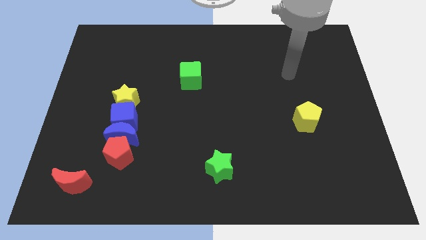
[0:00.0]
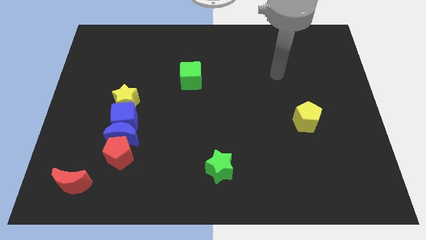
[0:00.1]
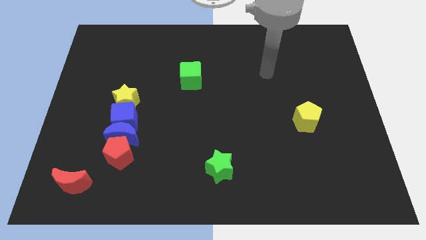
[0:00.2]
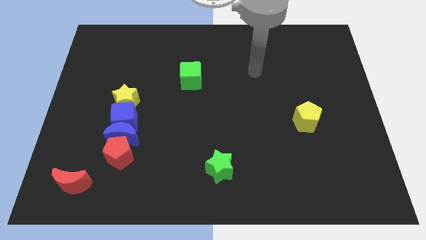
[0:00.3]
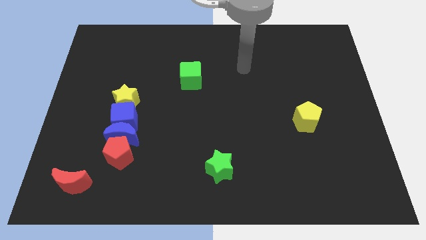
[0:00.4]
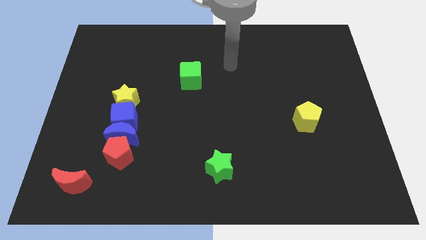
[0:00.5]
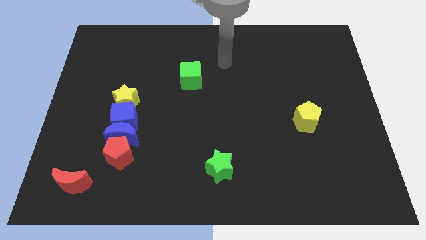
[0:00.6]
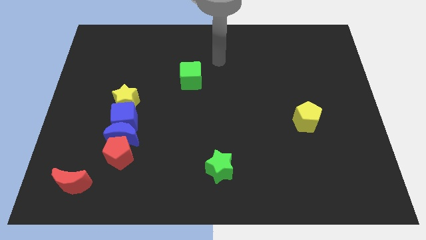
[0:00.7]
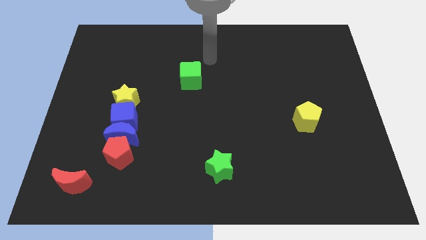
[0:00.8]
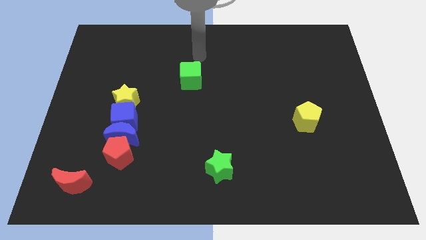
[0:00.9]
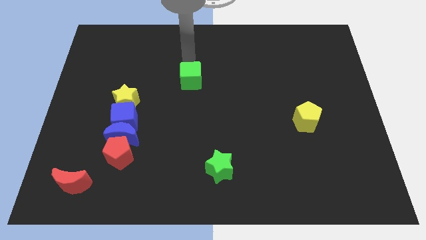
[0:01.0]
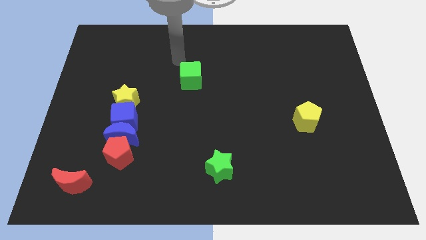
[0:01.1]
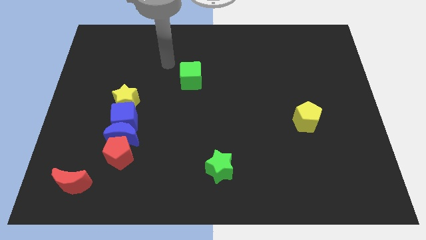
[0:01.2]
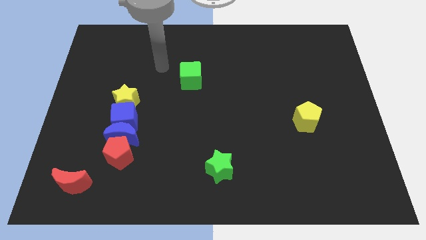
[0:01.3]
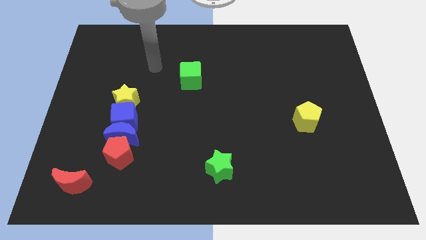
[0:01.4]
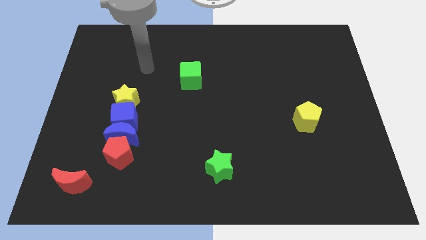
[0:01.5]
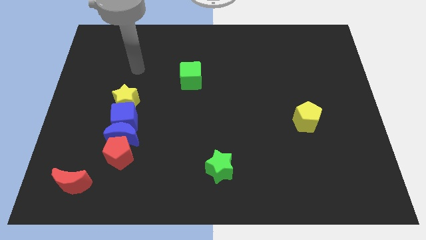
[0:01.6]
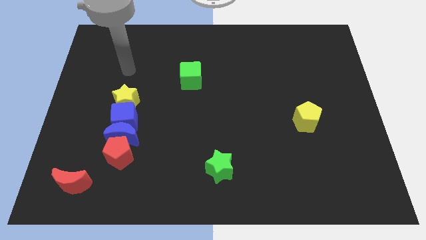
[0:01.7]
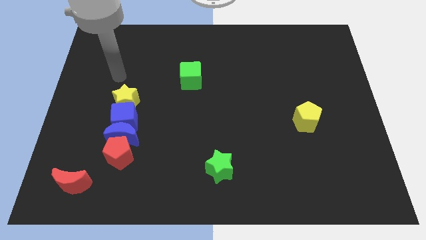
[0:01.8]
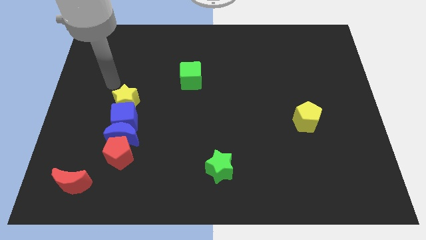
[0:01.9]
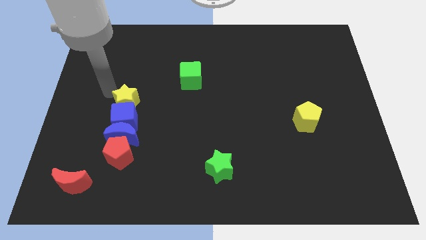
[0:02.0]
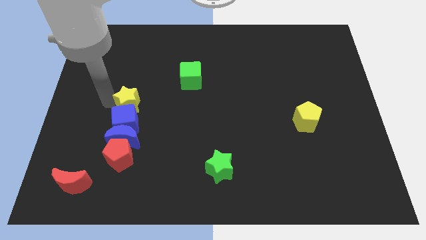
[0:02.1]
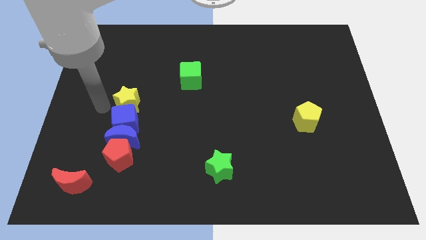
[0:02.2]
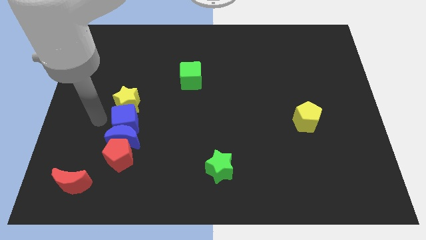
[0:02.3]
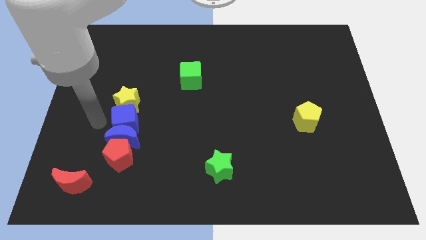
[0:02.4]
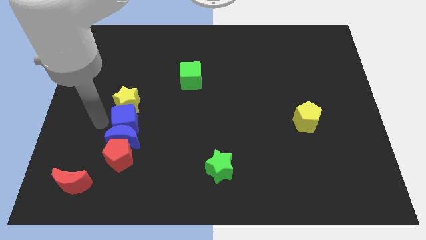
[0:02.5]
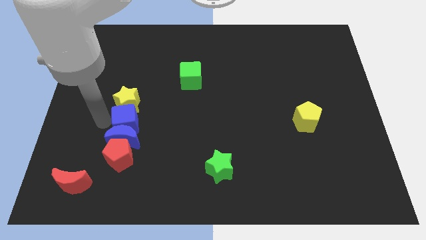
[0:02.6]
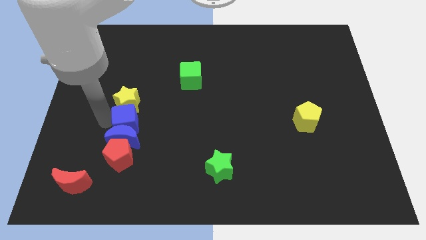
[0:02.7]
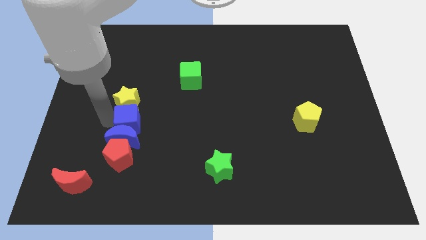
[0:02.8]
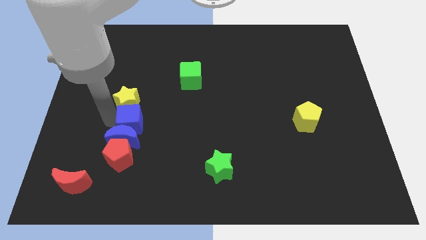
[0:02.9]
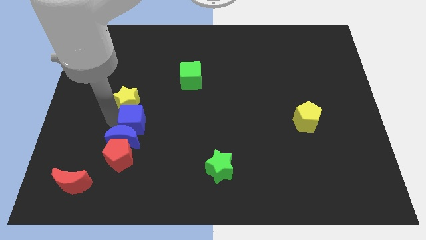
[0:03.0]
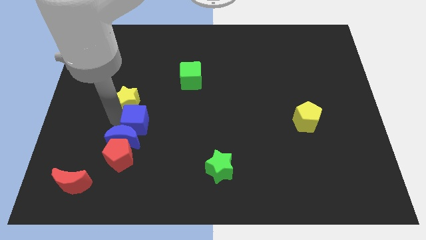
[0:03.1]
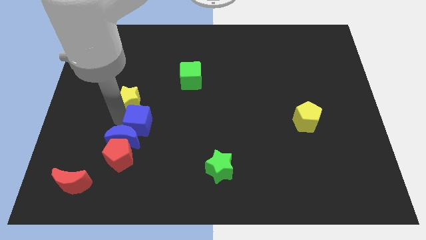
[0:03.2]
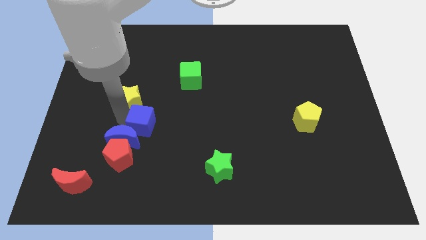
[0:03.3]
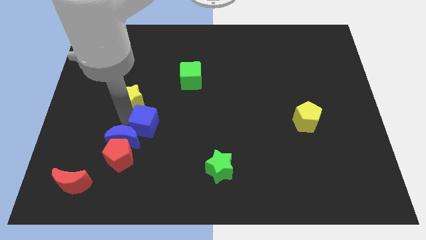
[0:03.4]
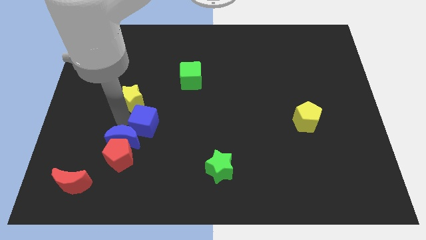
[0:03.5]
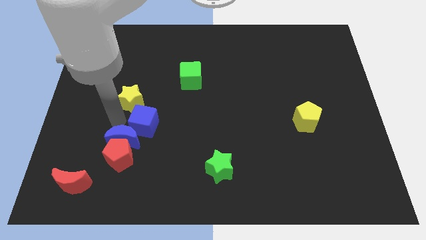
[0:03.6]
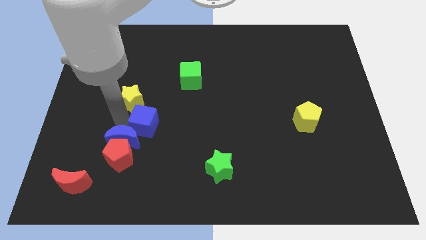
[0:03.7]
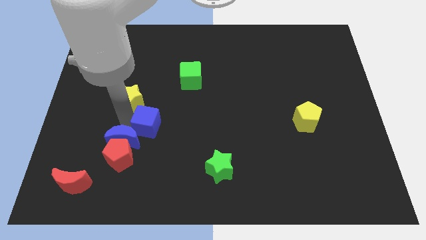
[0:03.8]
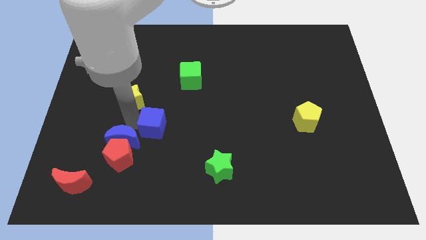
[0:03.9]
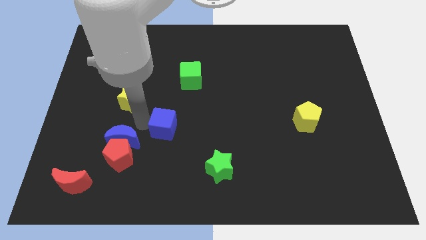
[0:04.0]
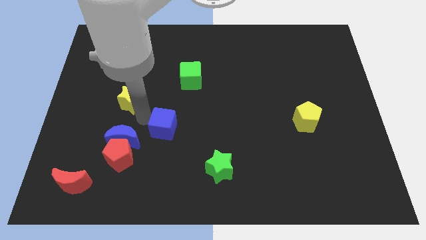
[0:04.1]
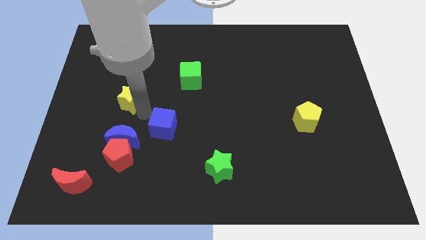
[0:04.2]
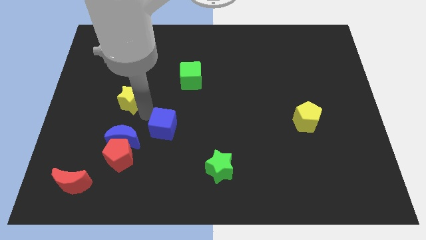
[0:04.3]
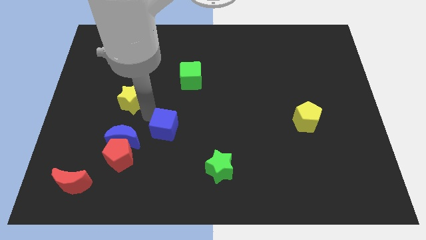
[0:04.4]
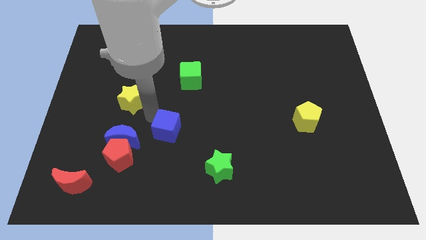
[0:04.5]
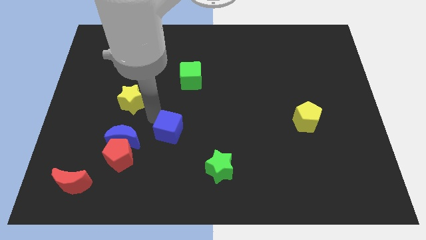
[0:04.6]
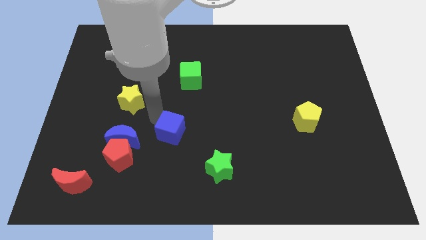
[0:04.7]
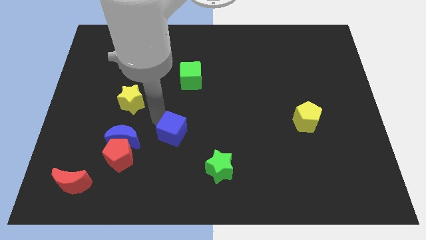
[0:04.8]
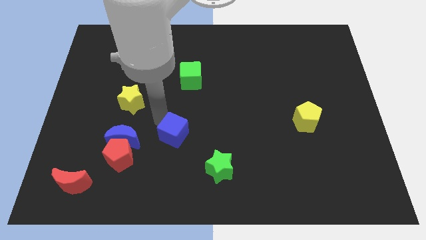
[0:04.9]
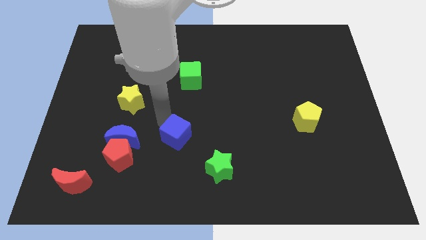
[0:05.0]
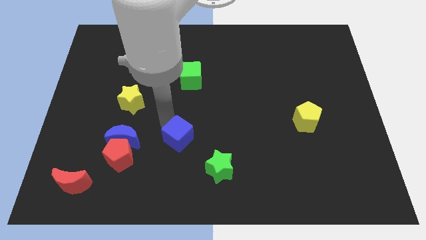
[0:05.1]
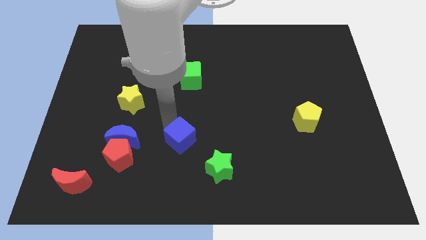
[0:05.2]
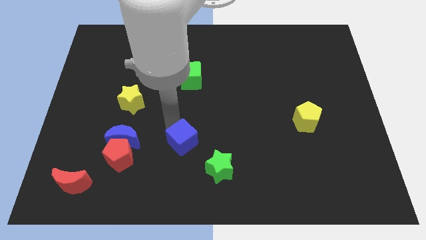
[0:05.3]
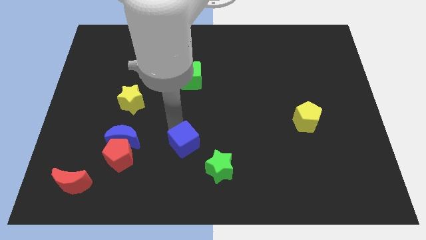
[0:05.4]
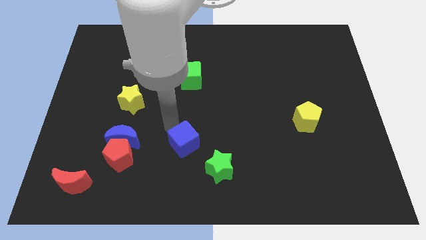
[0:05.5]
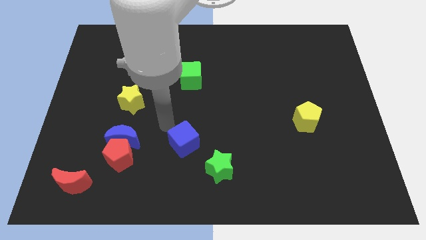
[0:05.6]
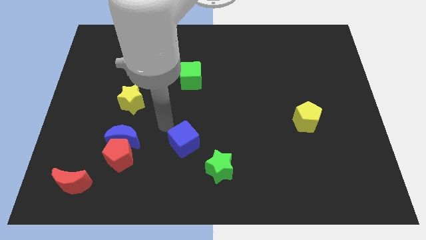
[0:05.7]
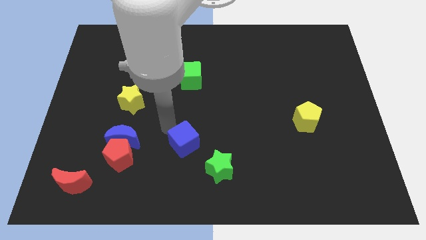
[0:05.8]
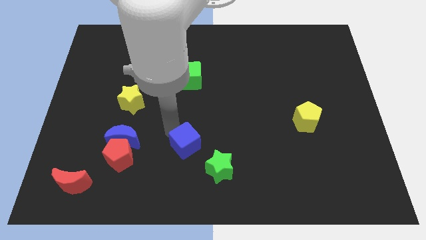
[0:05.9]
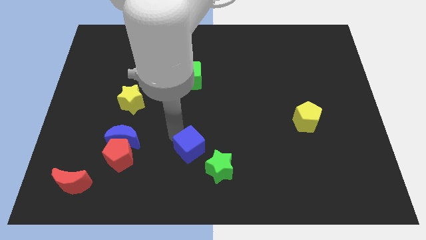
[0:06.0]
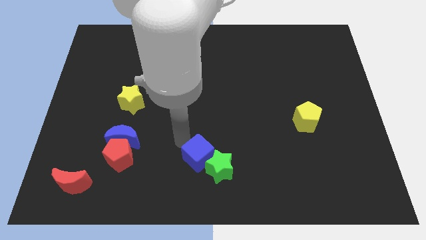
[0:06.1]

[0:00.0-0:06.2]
move the blue cube towards the green star

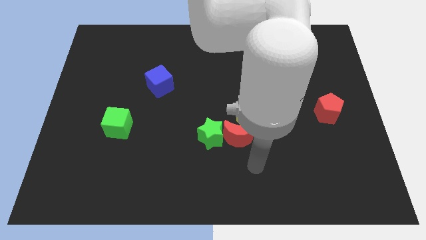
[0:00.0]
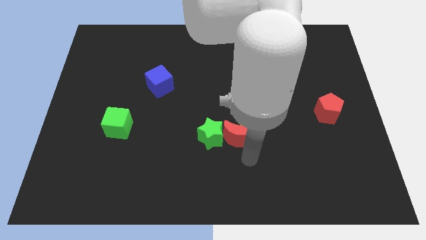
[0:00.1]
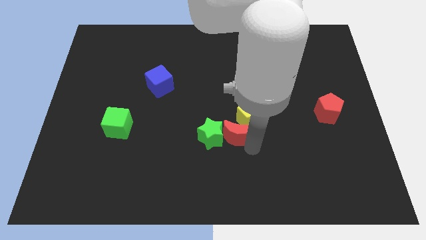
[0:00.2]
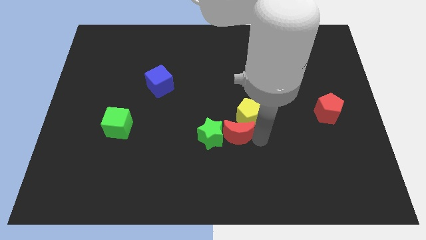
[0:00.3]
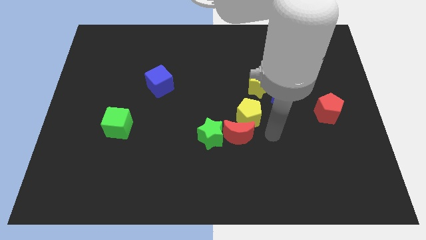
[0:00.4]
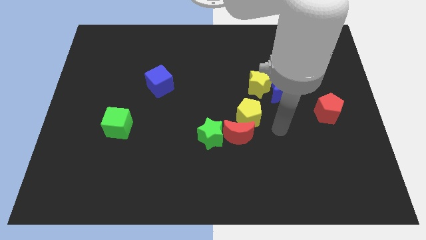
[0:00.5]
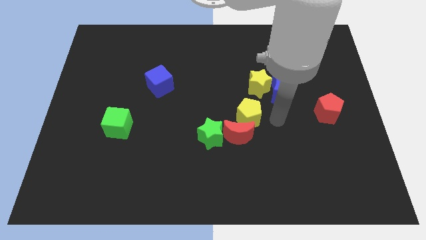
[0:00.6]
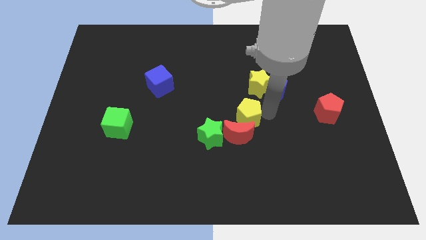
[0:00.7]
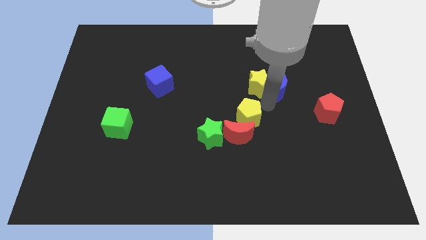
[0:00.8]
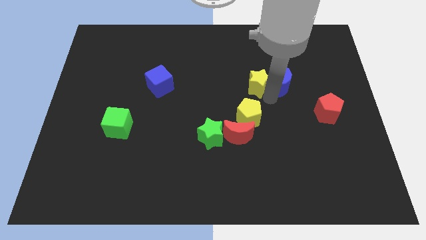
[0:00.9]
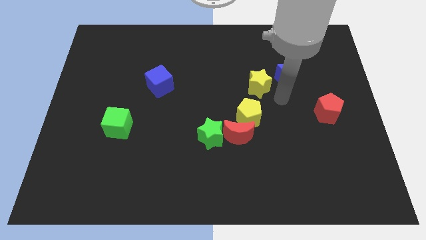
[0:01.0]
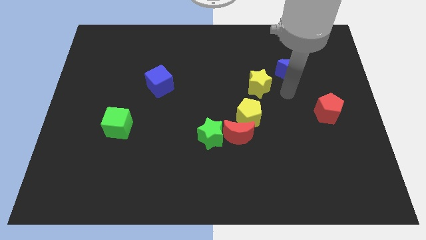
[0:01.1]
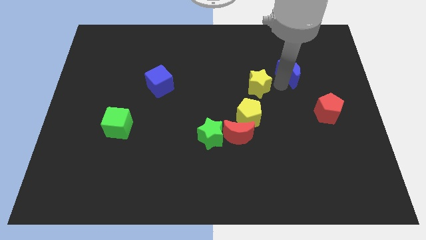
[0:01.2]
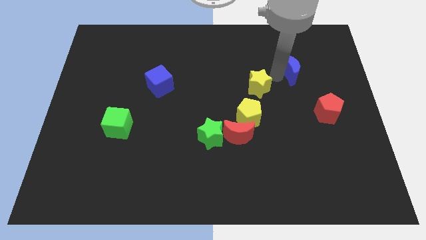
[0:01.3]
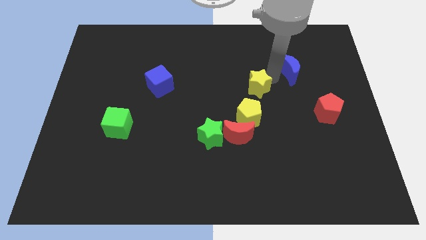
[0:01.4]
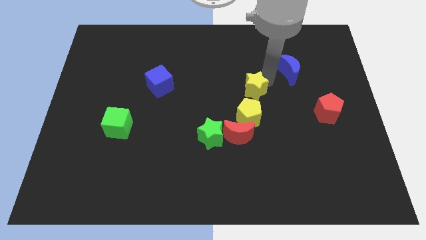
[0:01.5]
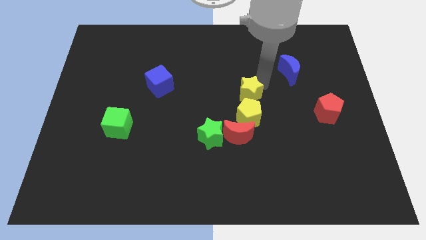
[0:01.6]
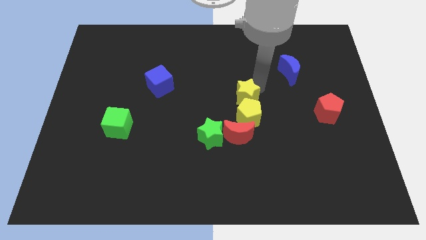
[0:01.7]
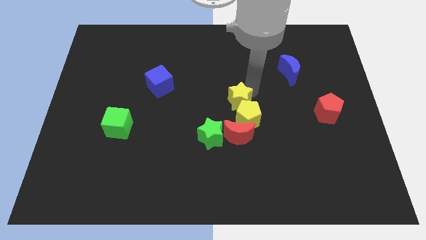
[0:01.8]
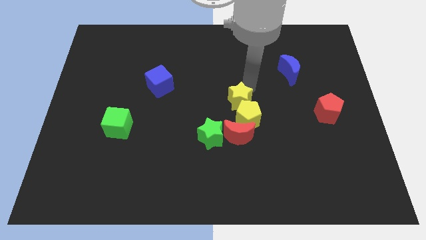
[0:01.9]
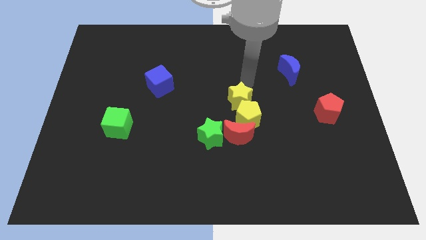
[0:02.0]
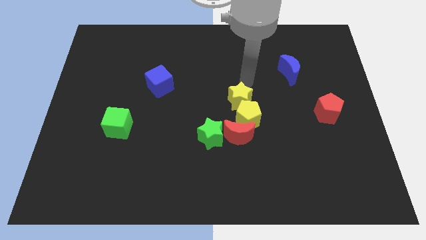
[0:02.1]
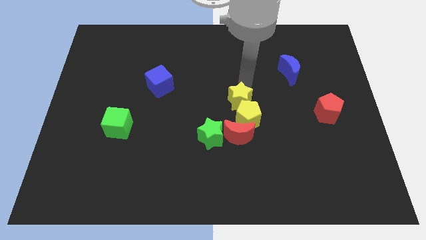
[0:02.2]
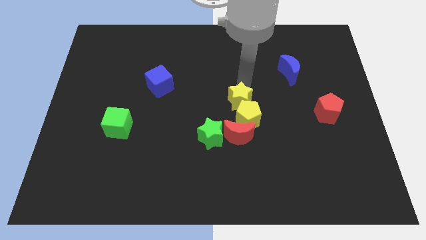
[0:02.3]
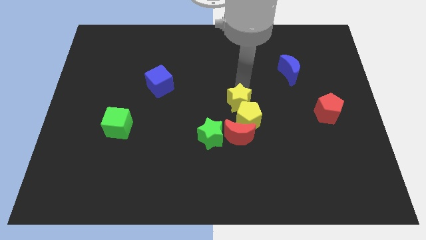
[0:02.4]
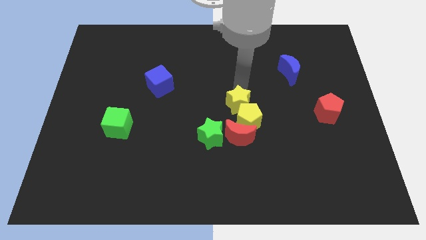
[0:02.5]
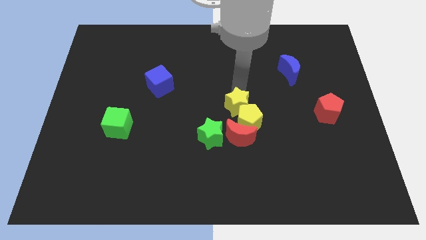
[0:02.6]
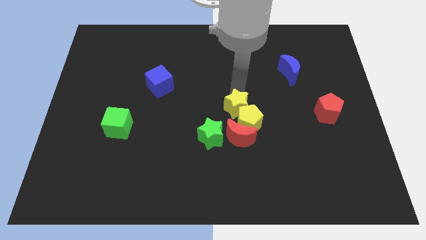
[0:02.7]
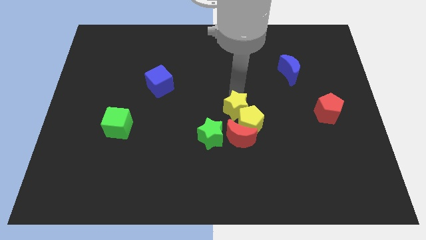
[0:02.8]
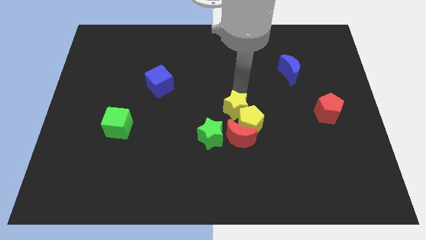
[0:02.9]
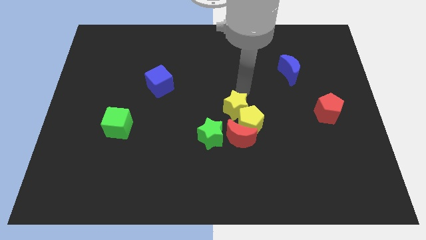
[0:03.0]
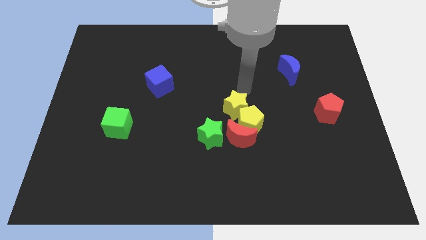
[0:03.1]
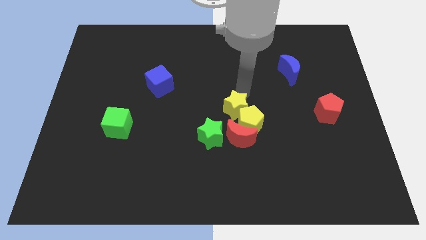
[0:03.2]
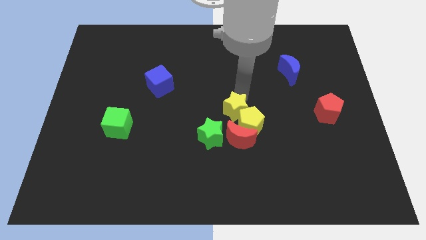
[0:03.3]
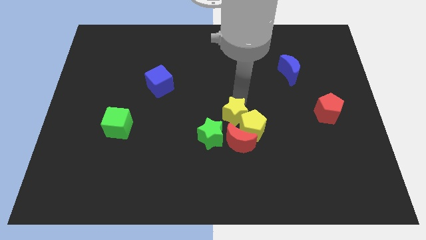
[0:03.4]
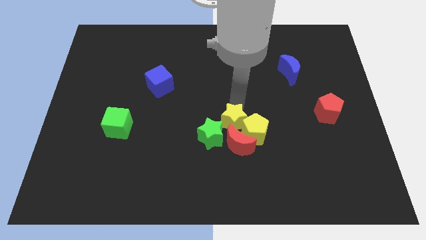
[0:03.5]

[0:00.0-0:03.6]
move the yellow star close to the red moon
